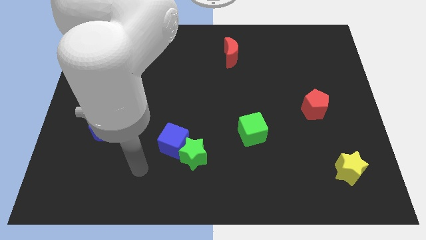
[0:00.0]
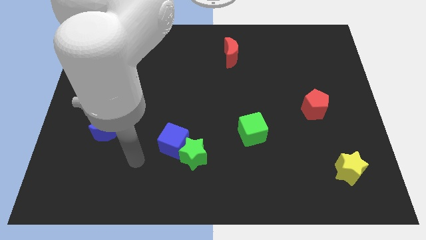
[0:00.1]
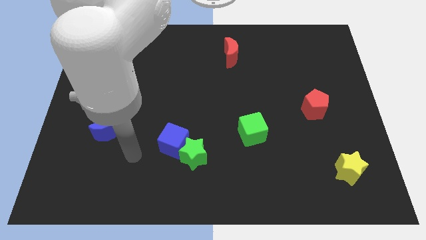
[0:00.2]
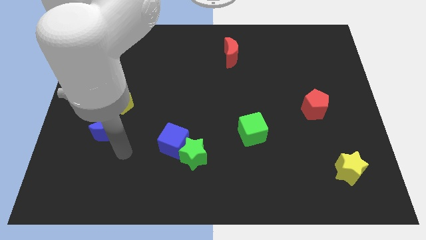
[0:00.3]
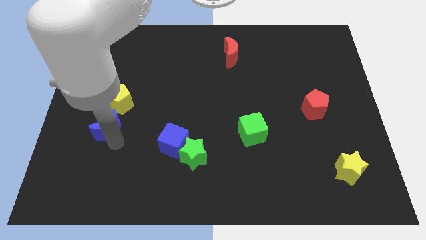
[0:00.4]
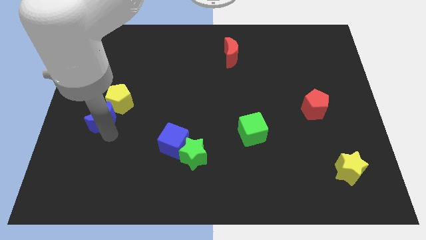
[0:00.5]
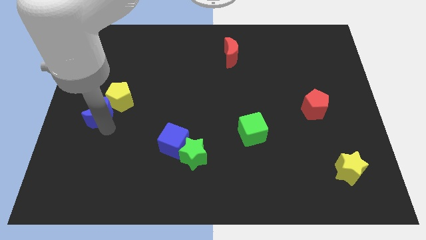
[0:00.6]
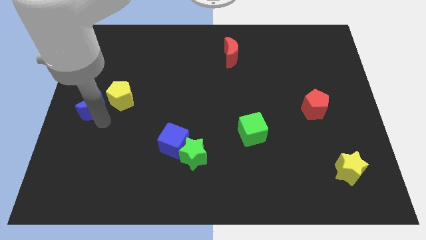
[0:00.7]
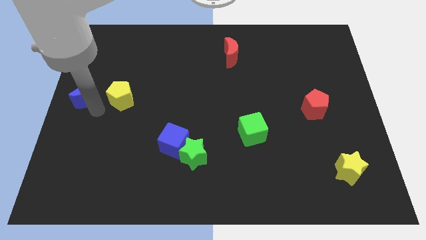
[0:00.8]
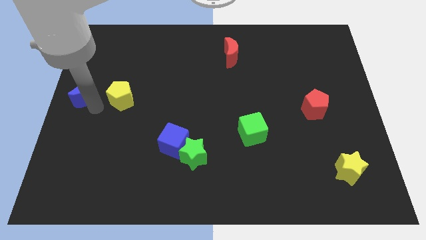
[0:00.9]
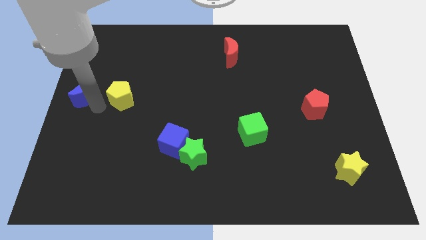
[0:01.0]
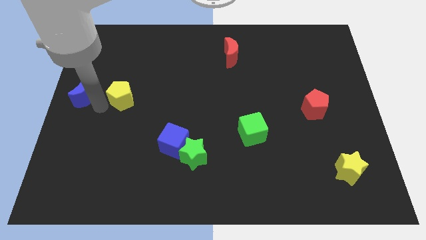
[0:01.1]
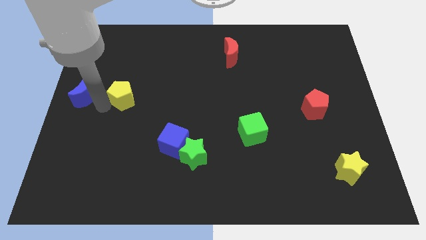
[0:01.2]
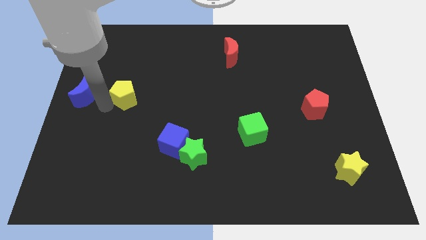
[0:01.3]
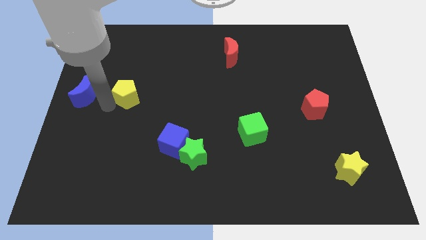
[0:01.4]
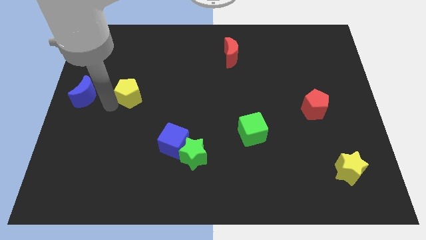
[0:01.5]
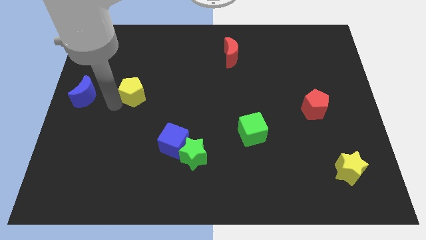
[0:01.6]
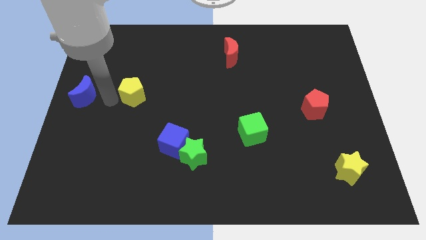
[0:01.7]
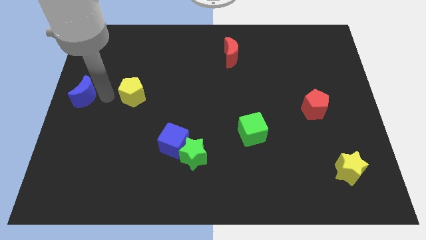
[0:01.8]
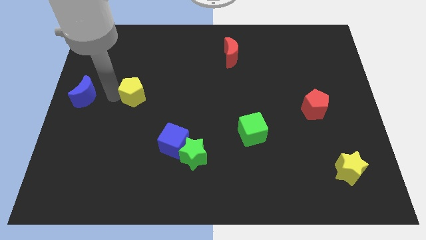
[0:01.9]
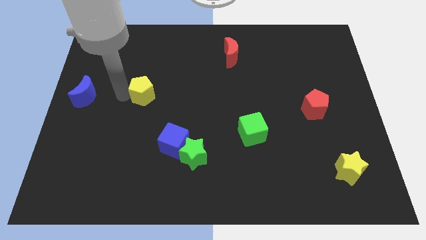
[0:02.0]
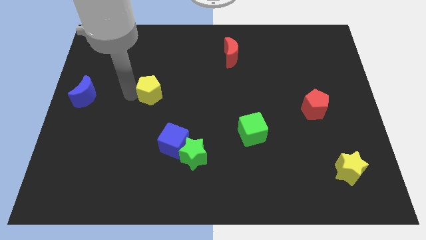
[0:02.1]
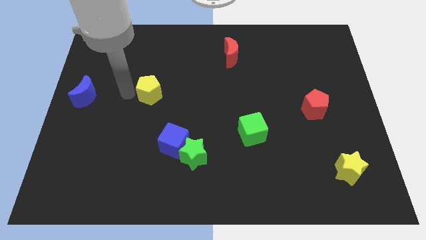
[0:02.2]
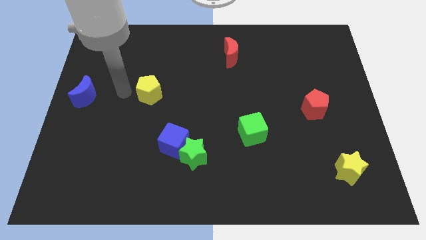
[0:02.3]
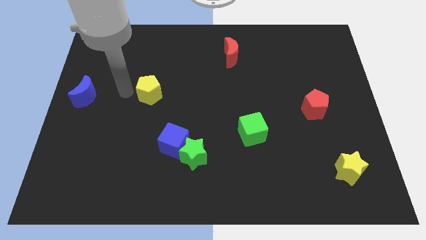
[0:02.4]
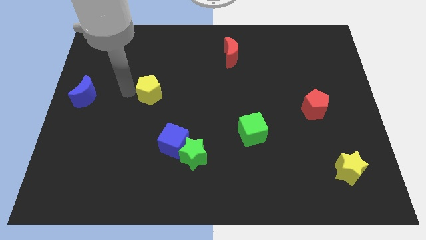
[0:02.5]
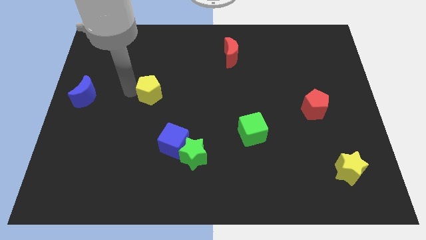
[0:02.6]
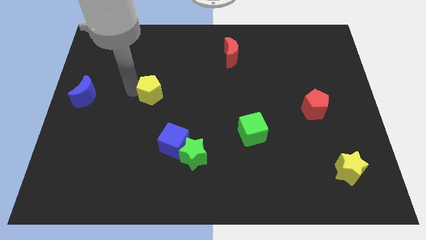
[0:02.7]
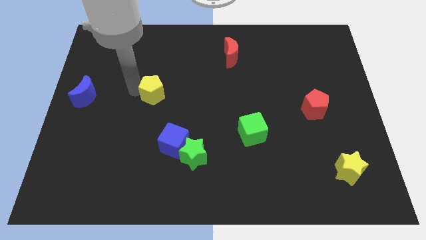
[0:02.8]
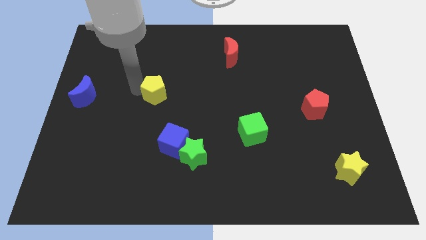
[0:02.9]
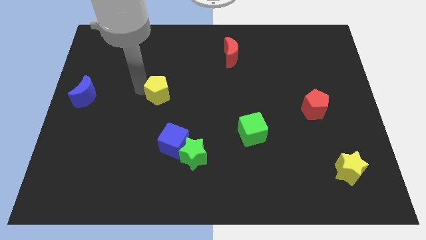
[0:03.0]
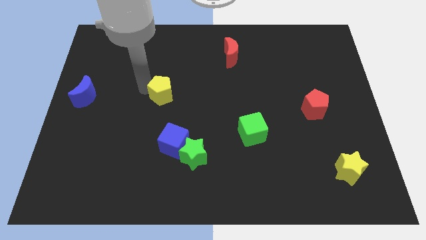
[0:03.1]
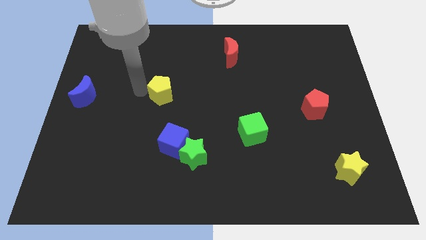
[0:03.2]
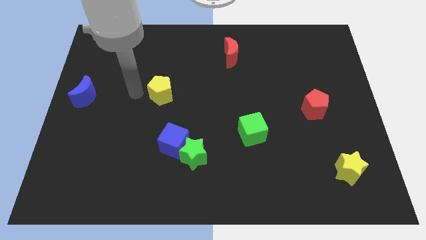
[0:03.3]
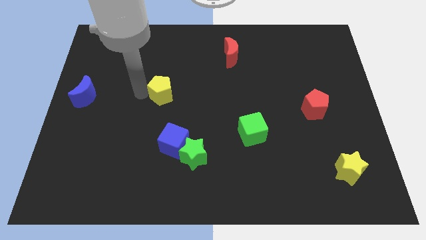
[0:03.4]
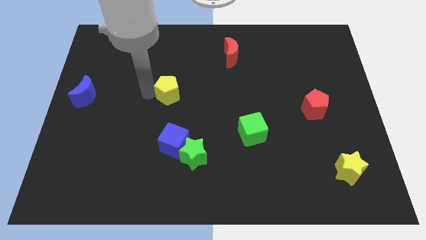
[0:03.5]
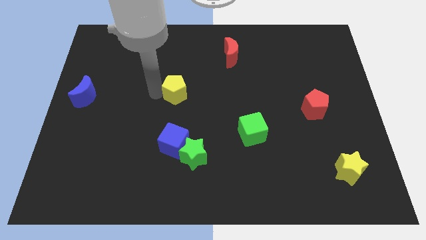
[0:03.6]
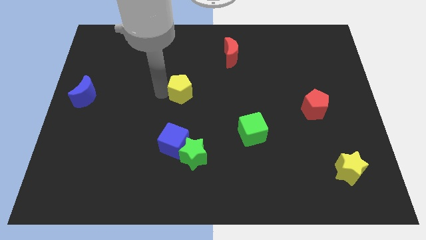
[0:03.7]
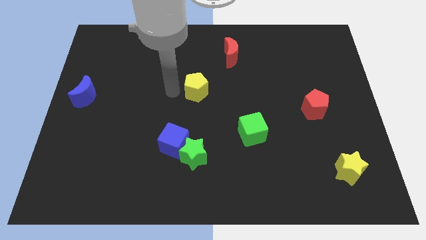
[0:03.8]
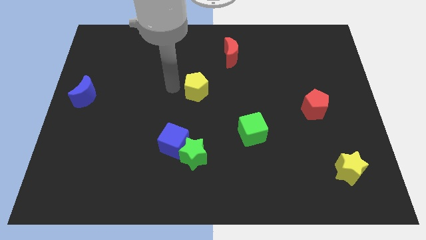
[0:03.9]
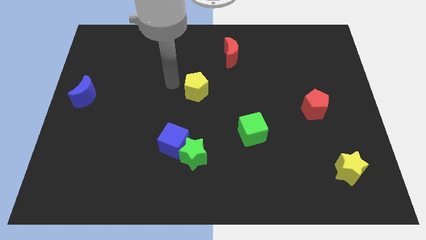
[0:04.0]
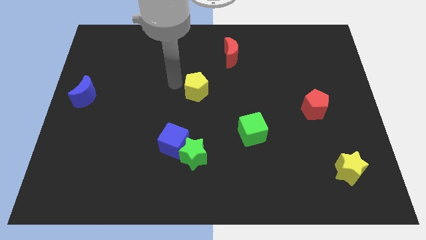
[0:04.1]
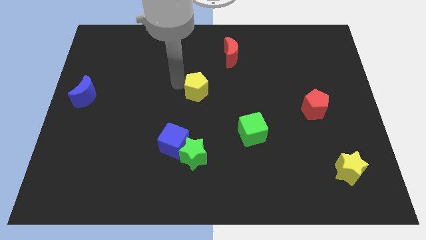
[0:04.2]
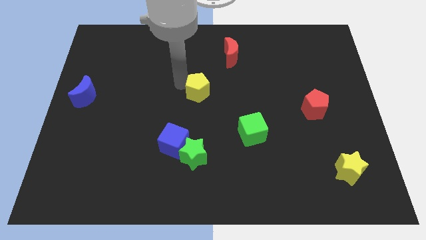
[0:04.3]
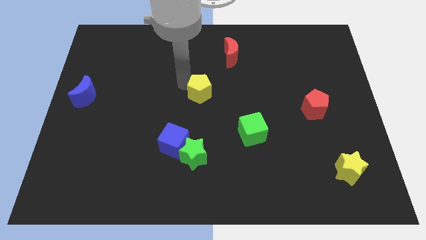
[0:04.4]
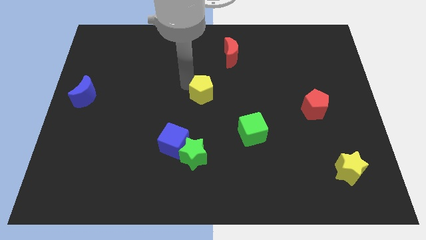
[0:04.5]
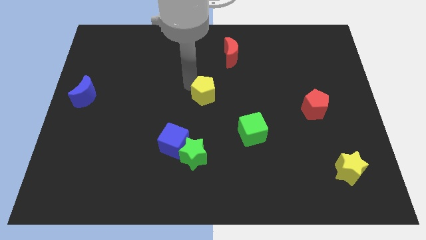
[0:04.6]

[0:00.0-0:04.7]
move the yellow pentagon to the right

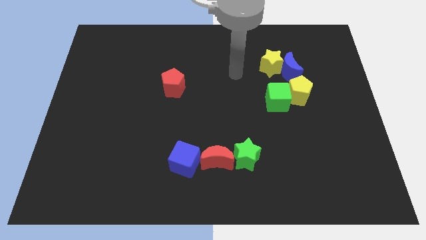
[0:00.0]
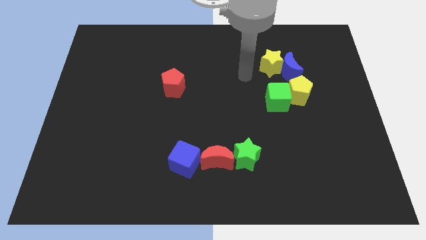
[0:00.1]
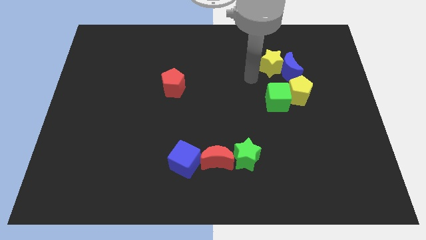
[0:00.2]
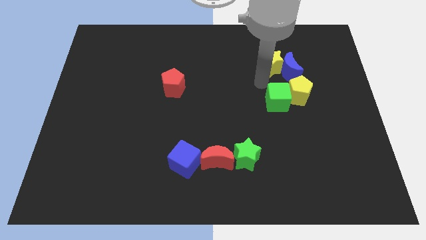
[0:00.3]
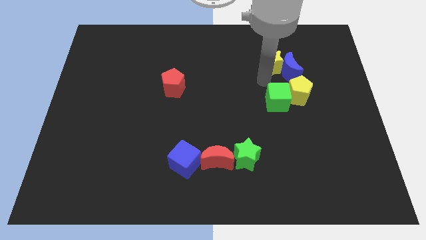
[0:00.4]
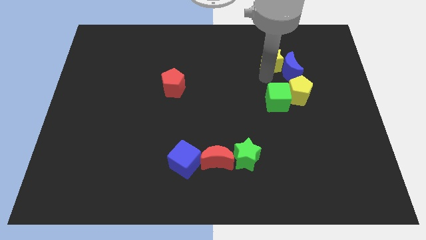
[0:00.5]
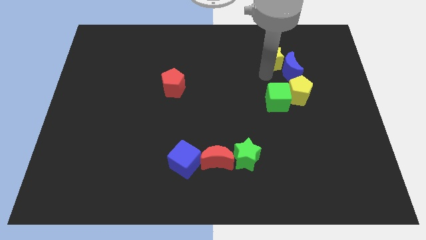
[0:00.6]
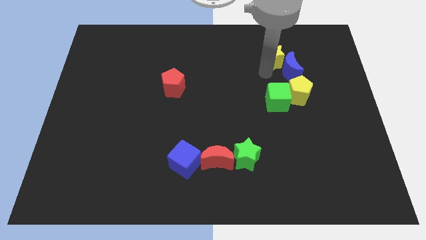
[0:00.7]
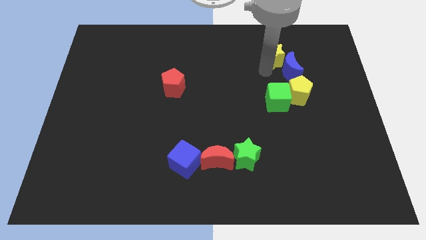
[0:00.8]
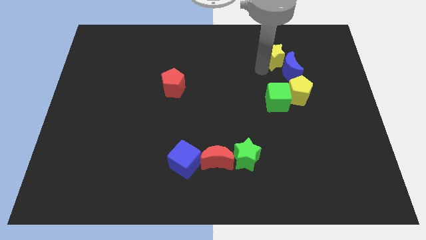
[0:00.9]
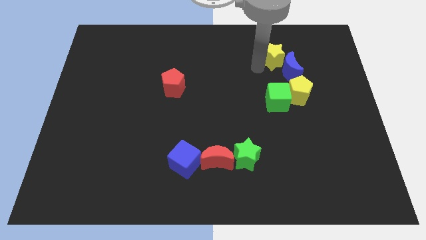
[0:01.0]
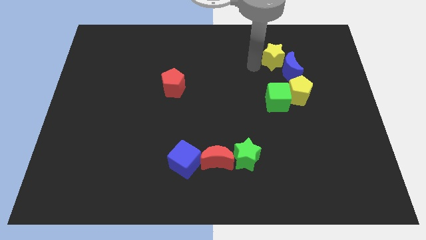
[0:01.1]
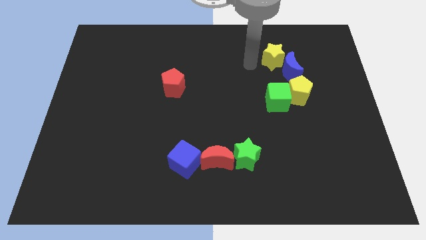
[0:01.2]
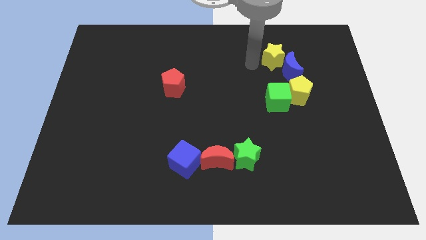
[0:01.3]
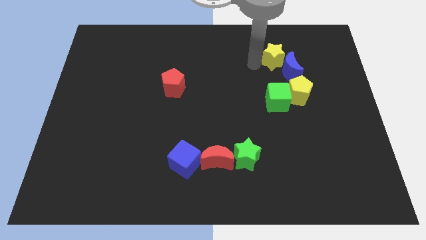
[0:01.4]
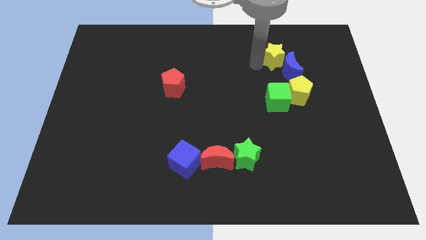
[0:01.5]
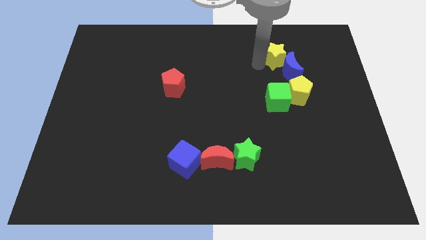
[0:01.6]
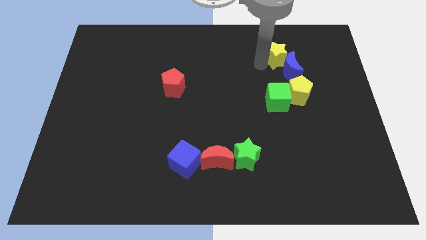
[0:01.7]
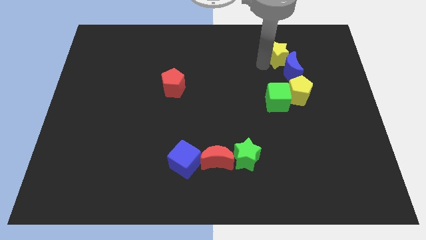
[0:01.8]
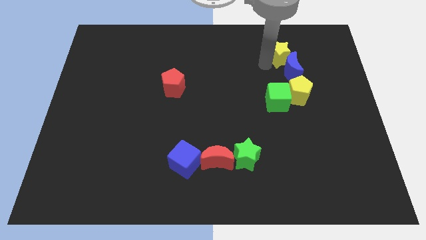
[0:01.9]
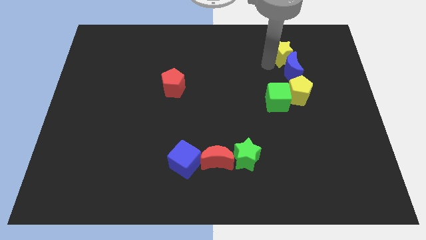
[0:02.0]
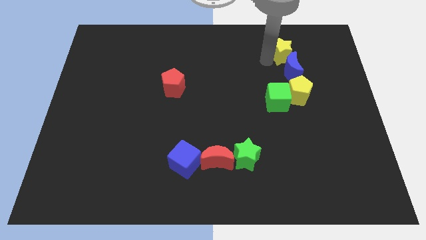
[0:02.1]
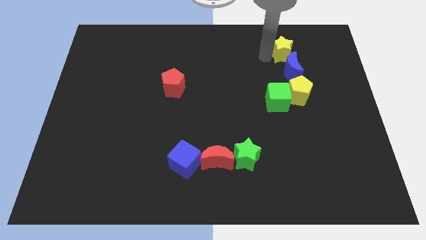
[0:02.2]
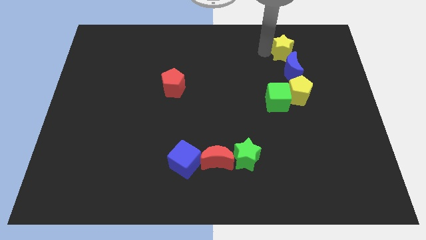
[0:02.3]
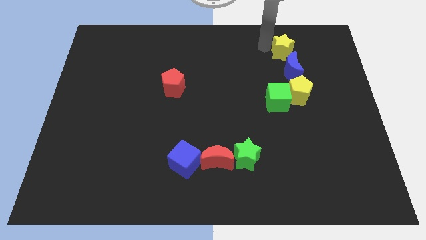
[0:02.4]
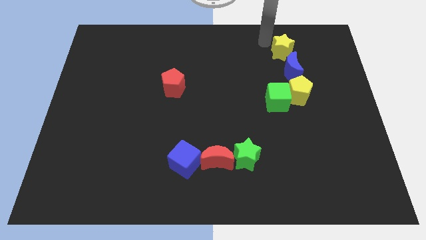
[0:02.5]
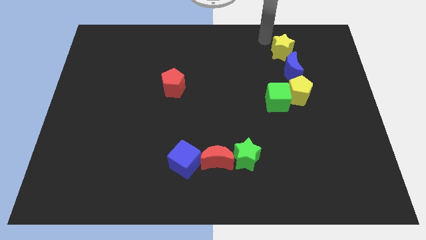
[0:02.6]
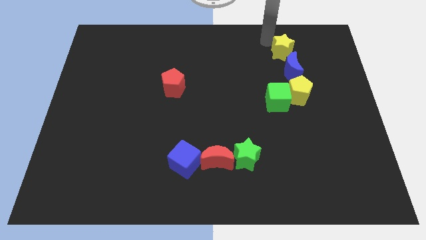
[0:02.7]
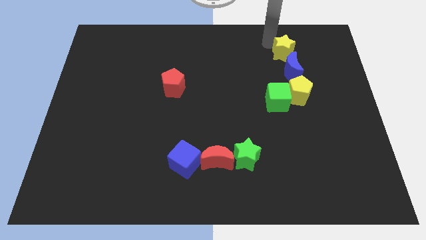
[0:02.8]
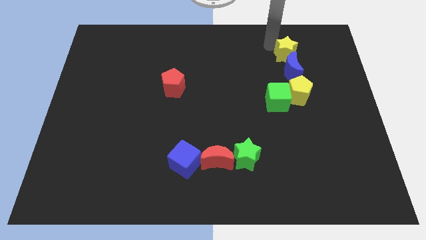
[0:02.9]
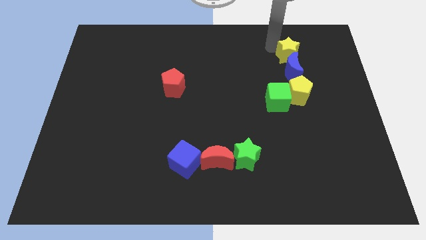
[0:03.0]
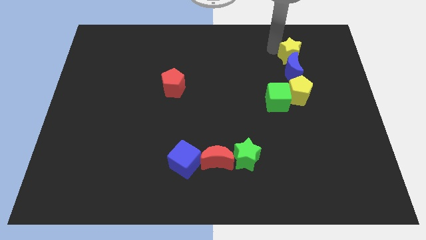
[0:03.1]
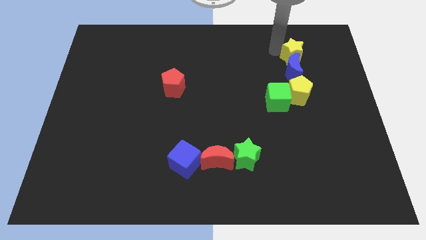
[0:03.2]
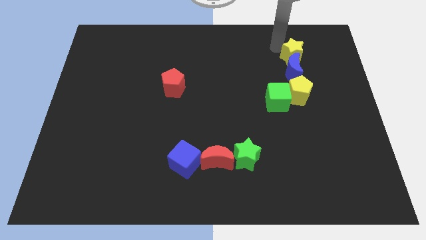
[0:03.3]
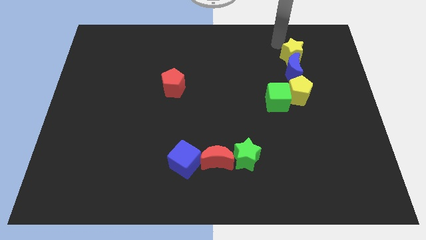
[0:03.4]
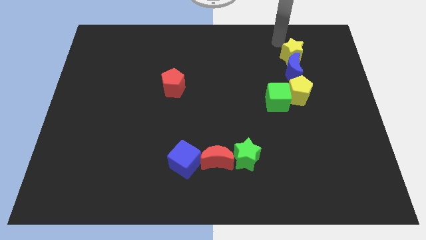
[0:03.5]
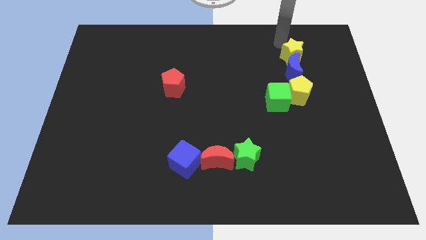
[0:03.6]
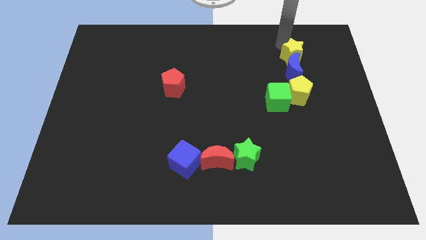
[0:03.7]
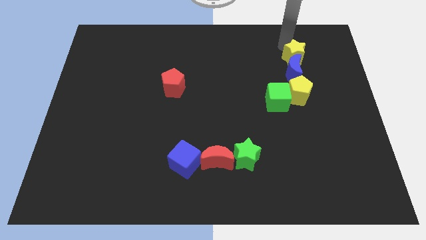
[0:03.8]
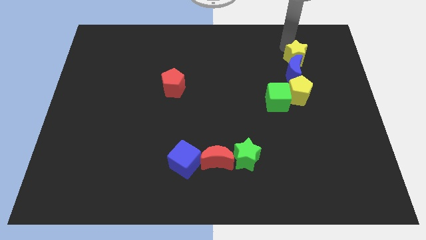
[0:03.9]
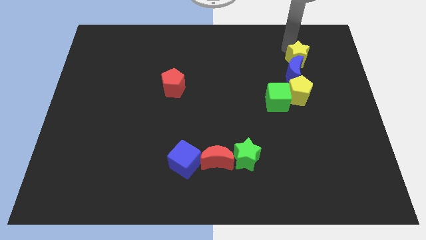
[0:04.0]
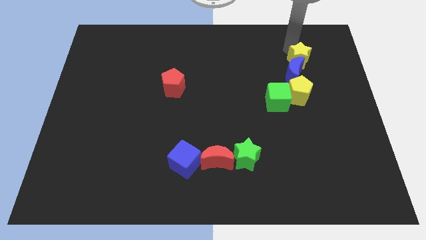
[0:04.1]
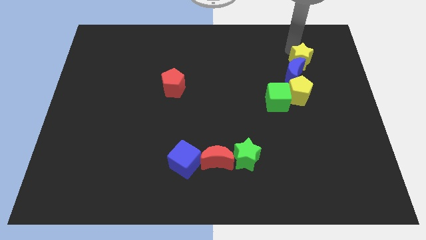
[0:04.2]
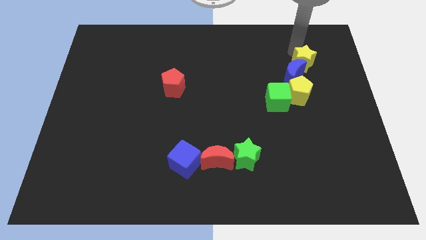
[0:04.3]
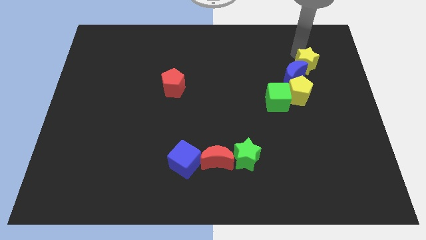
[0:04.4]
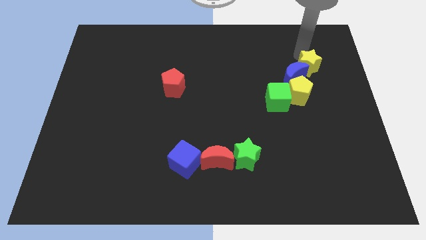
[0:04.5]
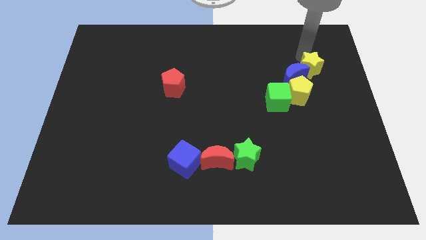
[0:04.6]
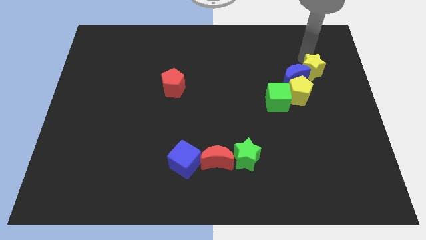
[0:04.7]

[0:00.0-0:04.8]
slightly slide the yellow star down and right diagonally
